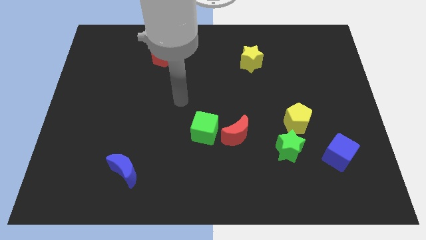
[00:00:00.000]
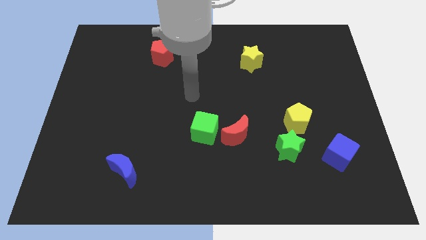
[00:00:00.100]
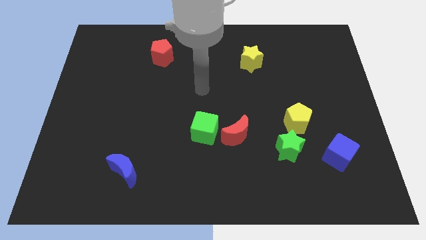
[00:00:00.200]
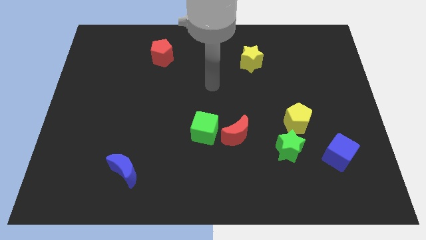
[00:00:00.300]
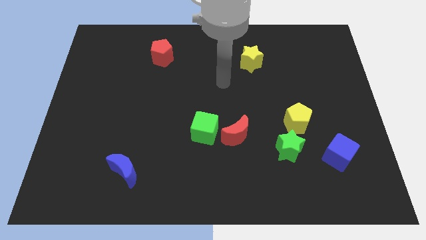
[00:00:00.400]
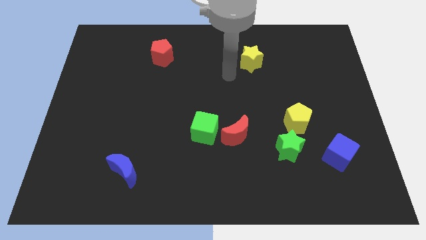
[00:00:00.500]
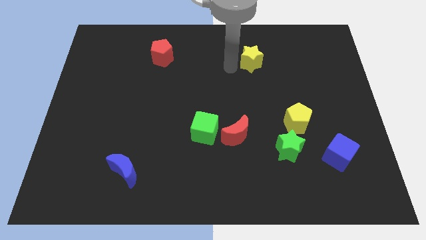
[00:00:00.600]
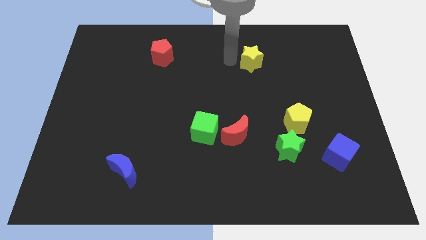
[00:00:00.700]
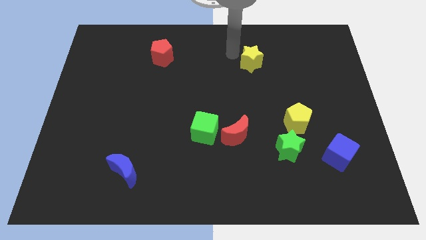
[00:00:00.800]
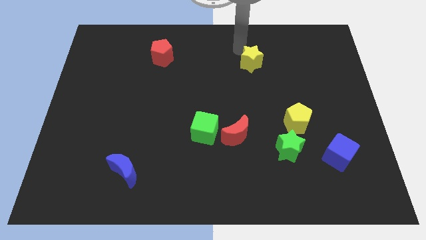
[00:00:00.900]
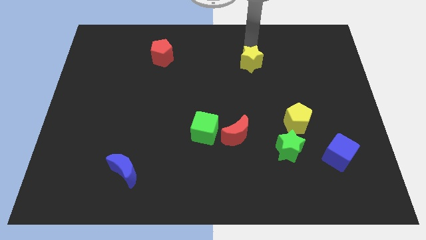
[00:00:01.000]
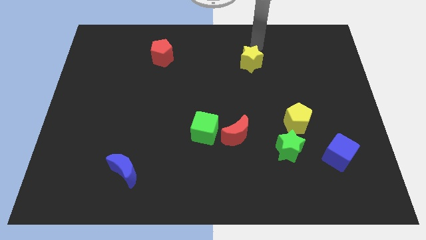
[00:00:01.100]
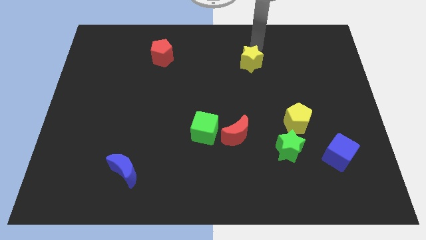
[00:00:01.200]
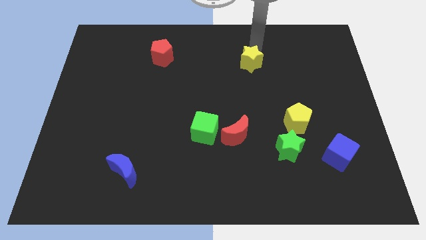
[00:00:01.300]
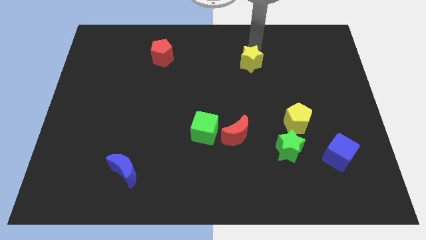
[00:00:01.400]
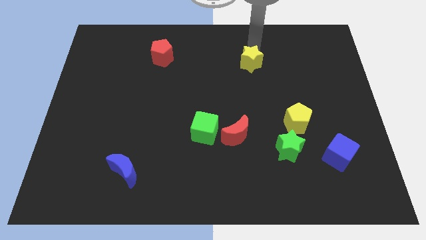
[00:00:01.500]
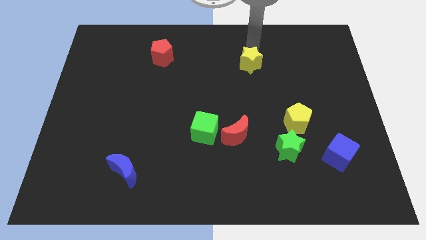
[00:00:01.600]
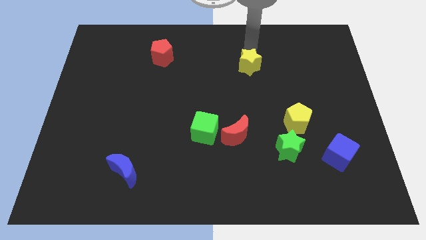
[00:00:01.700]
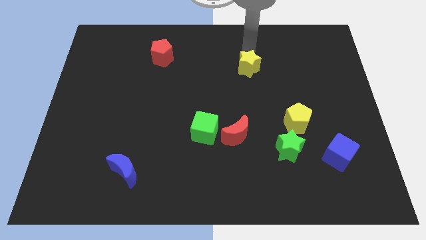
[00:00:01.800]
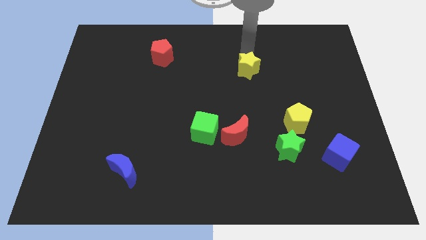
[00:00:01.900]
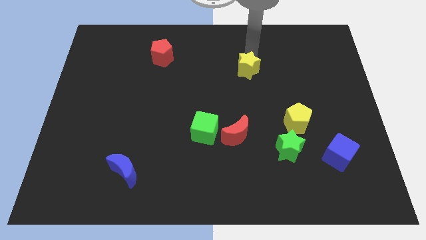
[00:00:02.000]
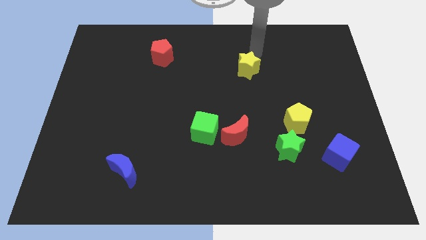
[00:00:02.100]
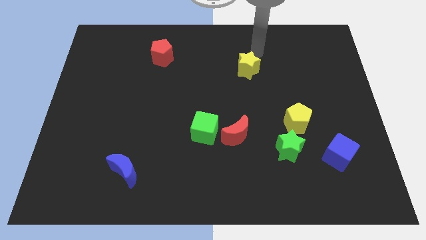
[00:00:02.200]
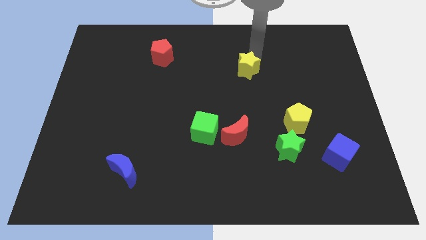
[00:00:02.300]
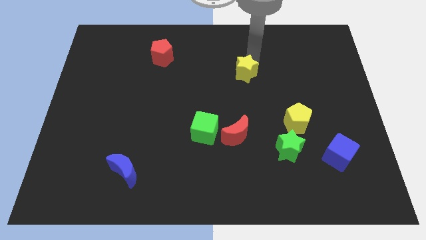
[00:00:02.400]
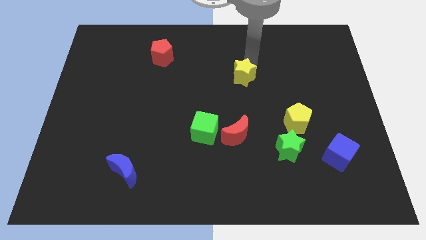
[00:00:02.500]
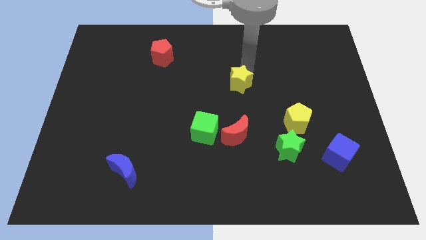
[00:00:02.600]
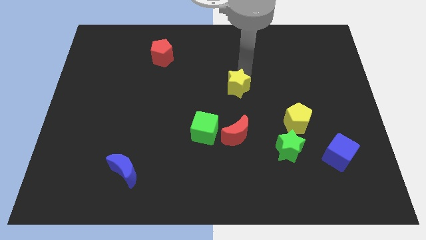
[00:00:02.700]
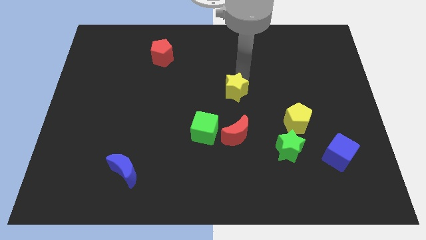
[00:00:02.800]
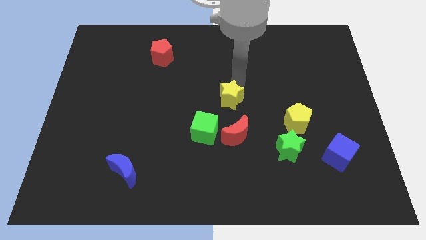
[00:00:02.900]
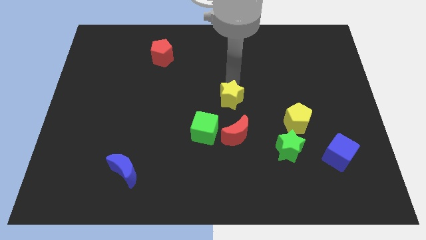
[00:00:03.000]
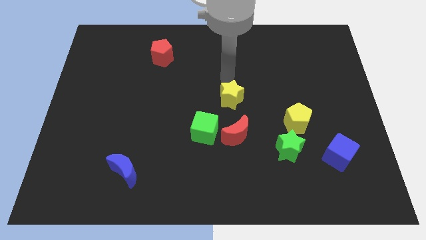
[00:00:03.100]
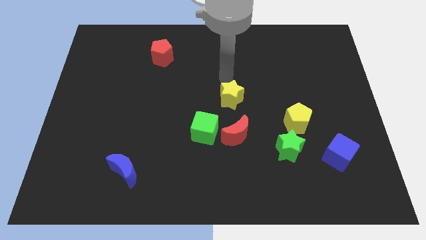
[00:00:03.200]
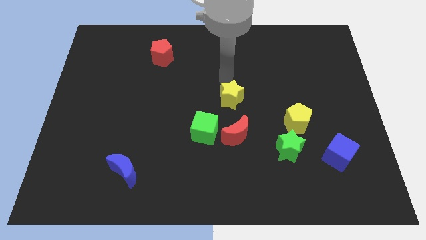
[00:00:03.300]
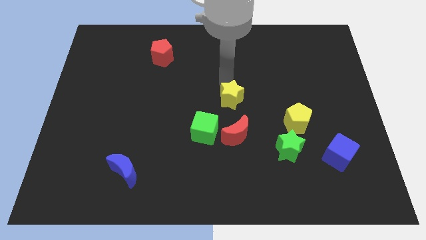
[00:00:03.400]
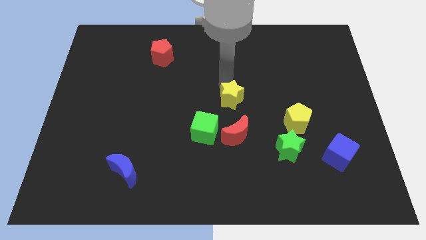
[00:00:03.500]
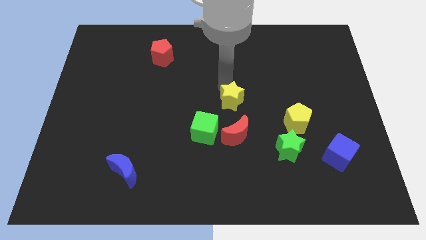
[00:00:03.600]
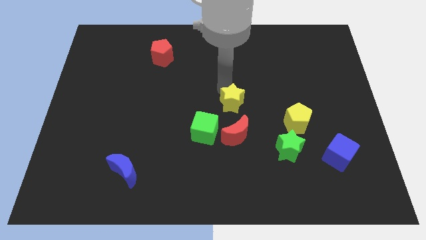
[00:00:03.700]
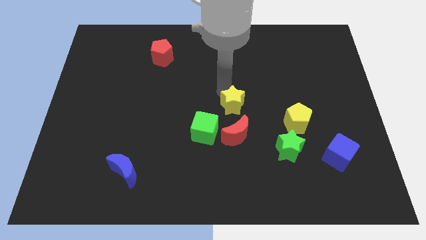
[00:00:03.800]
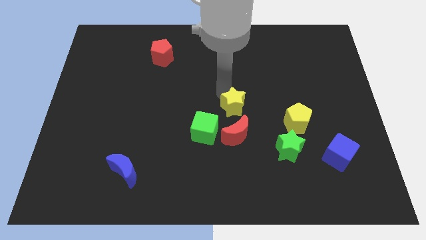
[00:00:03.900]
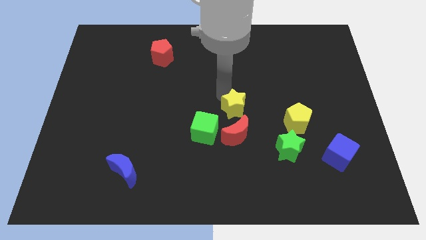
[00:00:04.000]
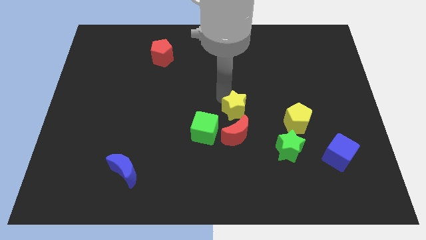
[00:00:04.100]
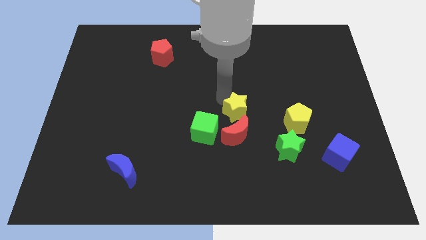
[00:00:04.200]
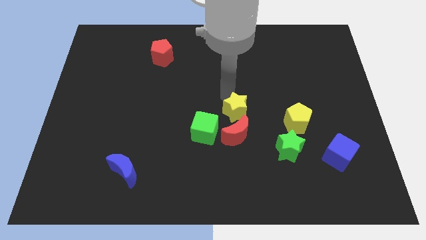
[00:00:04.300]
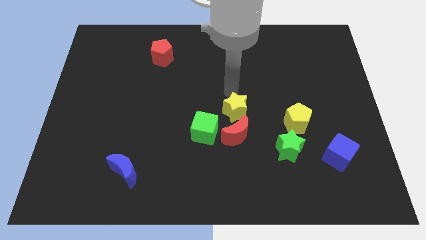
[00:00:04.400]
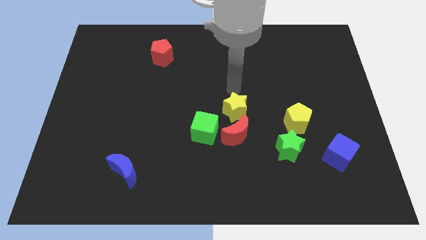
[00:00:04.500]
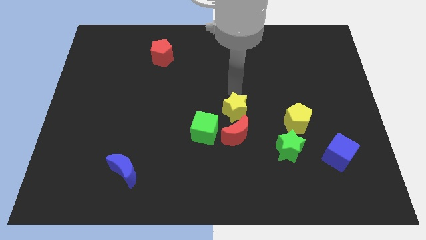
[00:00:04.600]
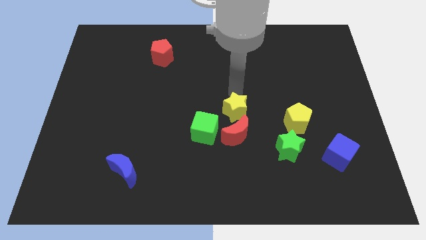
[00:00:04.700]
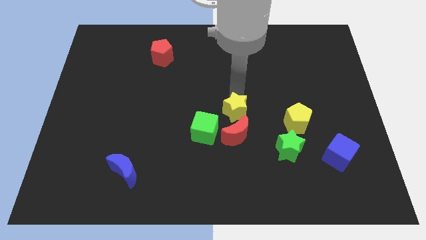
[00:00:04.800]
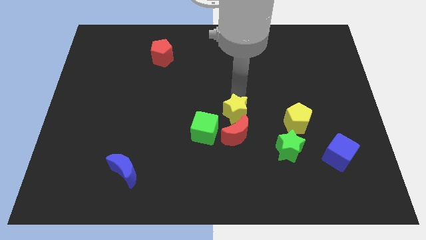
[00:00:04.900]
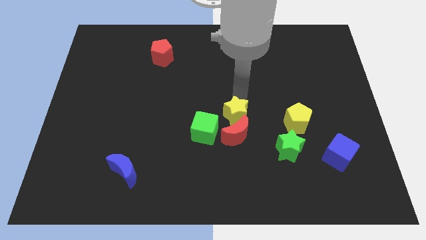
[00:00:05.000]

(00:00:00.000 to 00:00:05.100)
put the yellow star close to the red moon

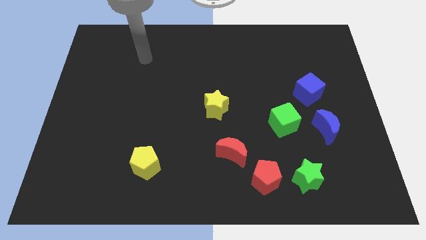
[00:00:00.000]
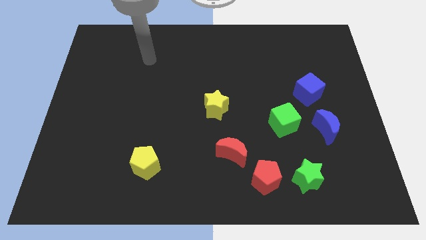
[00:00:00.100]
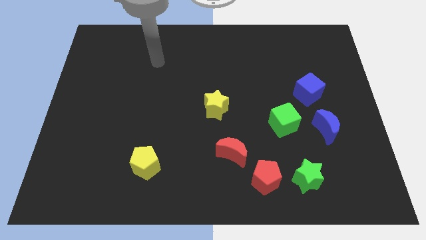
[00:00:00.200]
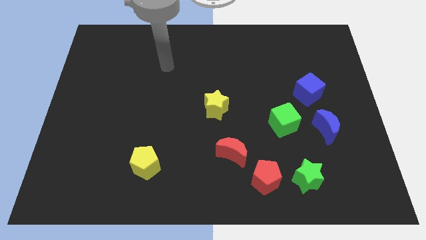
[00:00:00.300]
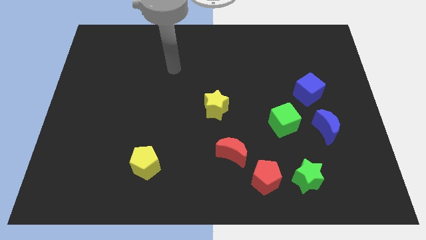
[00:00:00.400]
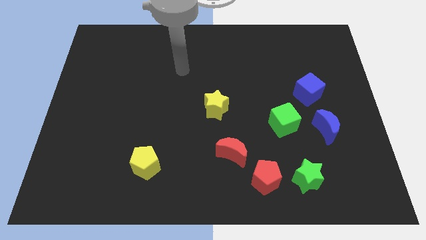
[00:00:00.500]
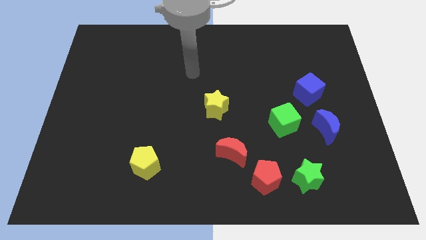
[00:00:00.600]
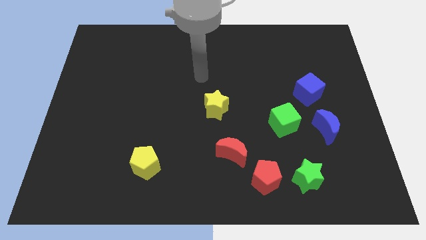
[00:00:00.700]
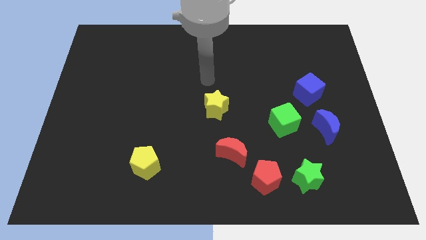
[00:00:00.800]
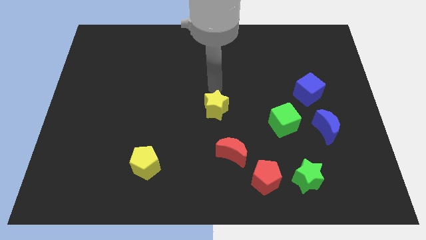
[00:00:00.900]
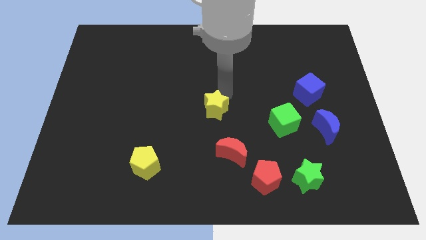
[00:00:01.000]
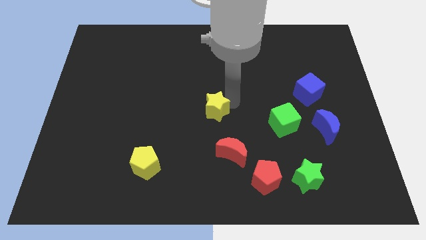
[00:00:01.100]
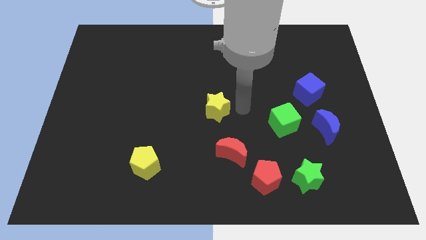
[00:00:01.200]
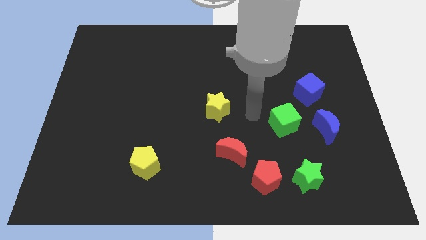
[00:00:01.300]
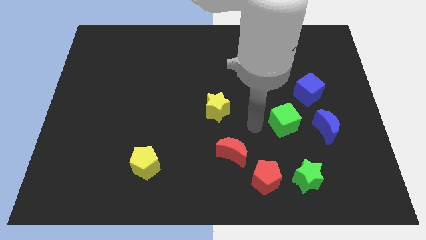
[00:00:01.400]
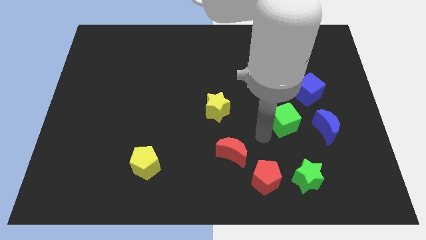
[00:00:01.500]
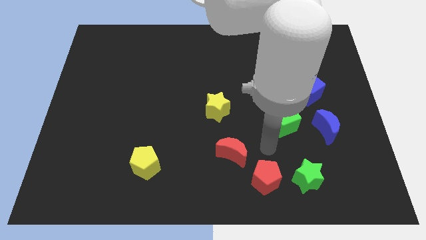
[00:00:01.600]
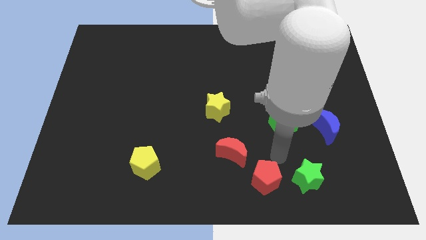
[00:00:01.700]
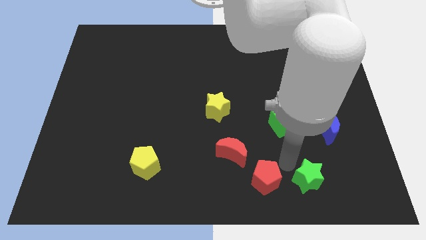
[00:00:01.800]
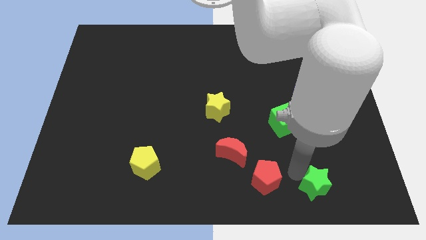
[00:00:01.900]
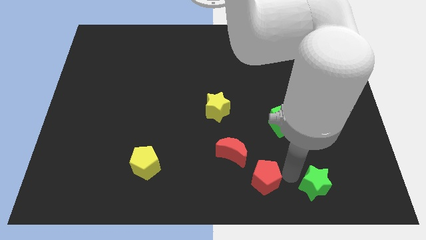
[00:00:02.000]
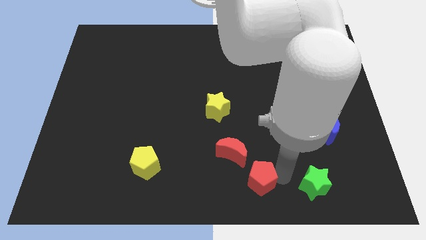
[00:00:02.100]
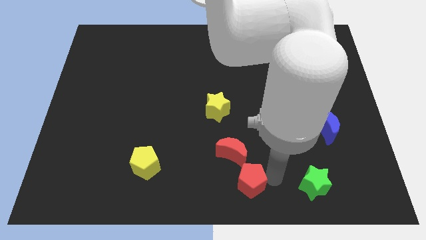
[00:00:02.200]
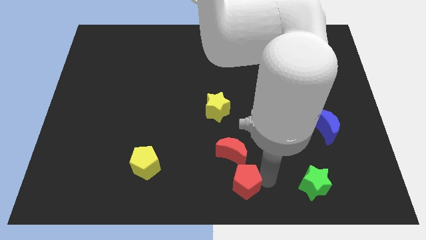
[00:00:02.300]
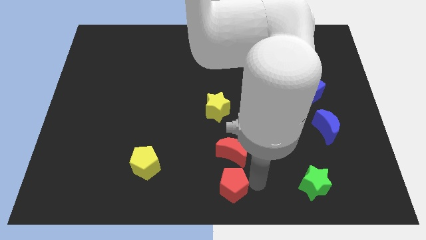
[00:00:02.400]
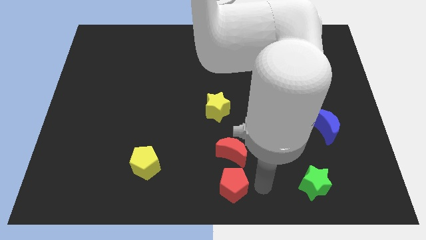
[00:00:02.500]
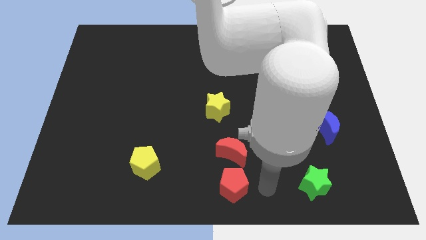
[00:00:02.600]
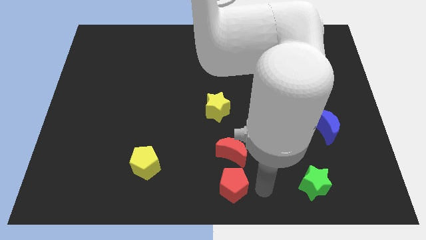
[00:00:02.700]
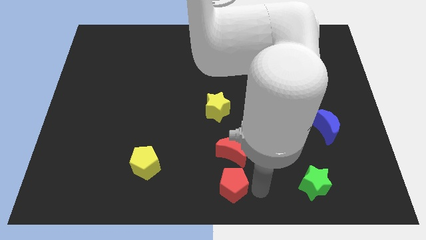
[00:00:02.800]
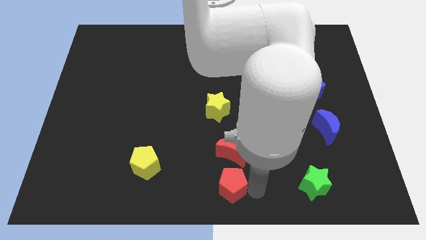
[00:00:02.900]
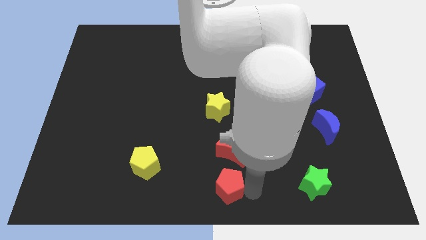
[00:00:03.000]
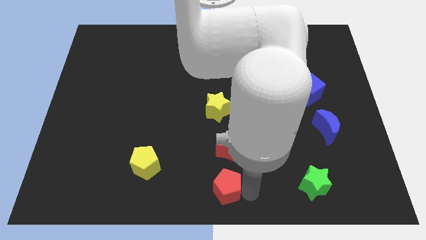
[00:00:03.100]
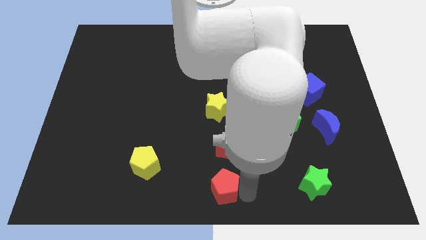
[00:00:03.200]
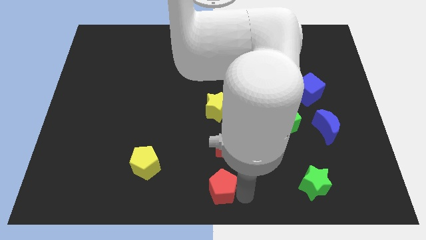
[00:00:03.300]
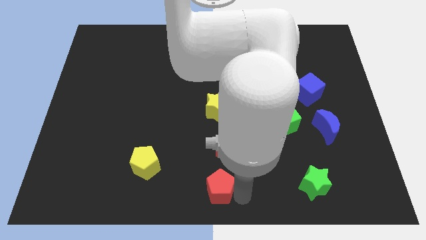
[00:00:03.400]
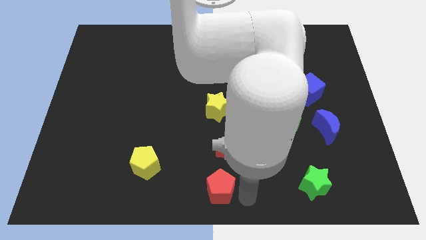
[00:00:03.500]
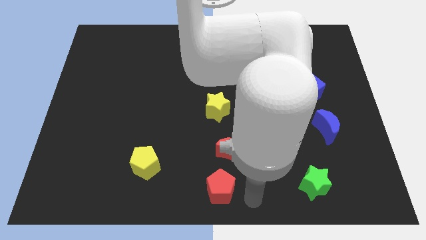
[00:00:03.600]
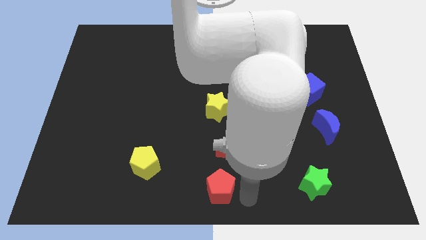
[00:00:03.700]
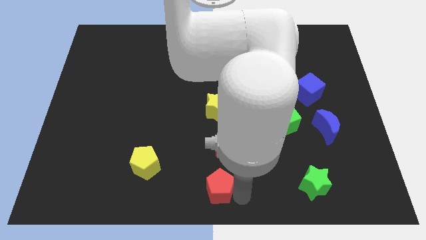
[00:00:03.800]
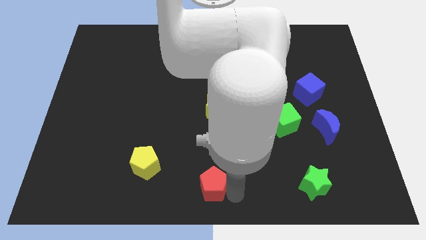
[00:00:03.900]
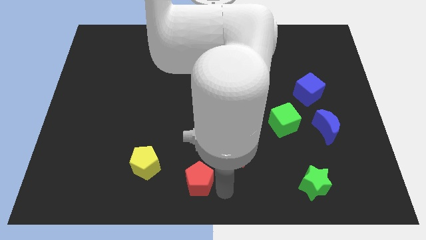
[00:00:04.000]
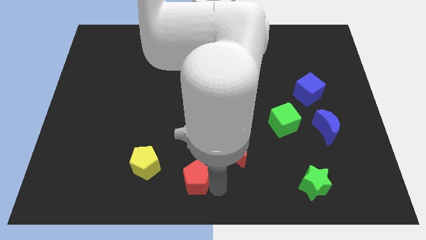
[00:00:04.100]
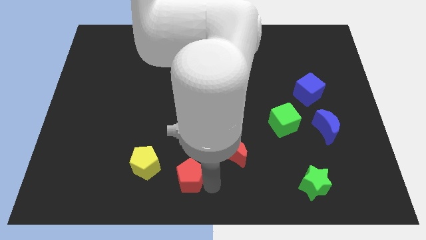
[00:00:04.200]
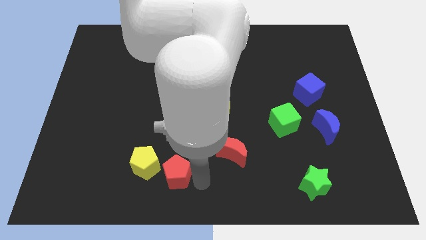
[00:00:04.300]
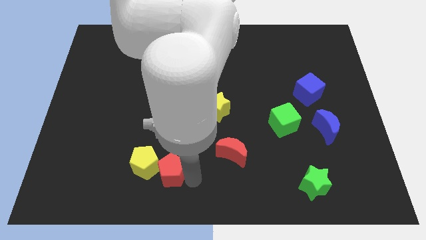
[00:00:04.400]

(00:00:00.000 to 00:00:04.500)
move the red pentagon next to the yellow pentagon
